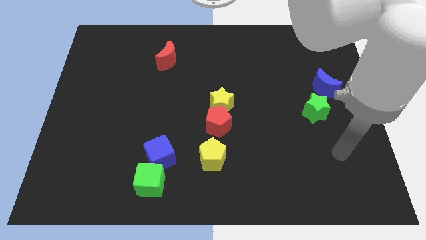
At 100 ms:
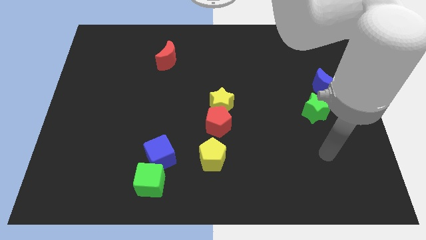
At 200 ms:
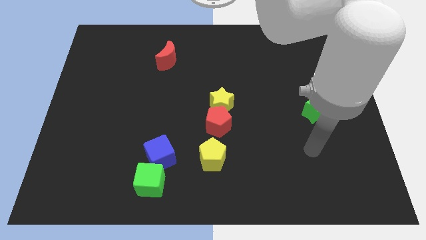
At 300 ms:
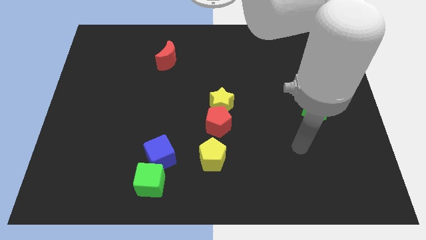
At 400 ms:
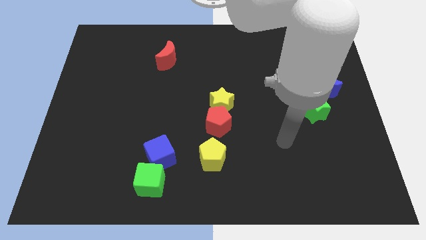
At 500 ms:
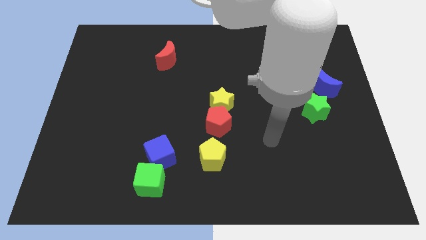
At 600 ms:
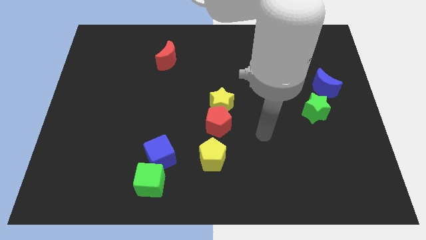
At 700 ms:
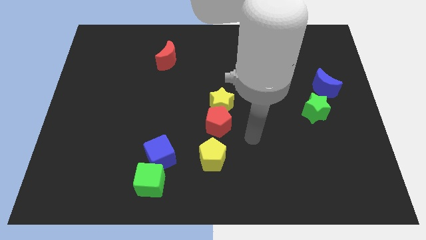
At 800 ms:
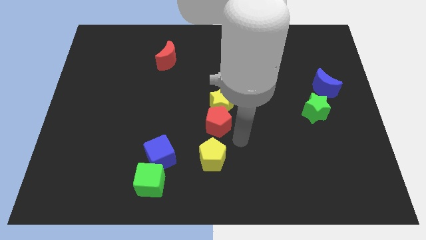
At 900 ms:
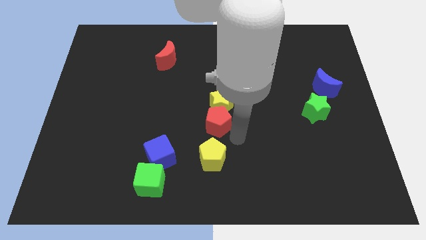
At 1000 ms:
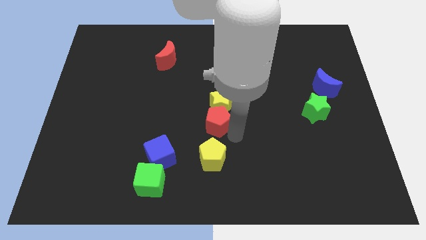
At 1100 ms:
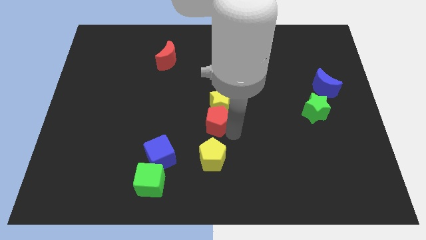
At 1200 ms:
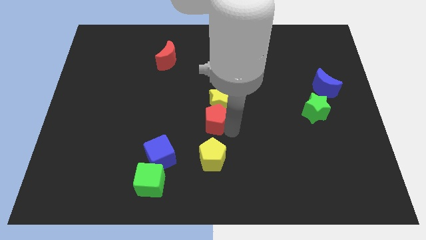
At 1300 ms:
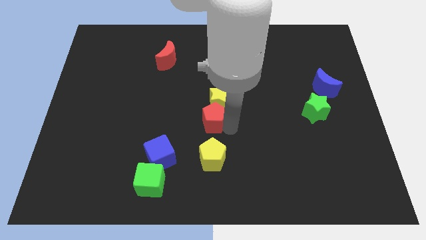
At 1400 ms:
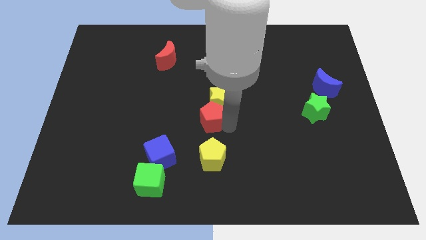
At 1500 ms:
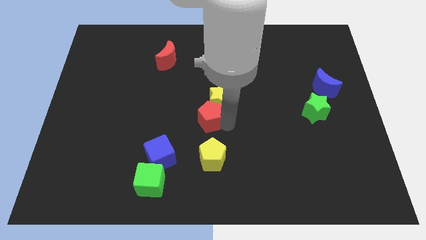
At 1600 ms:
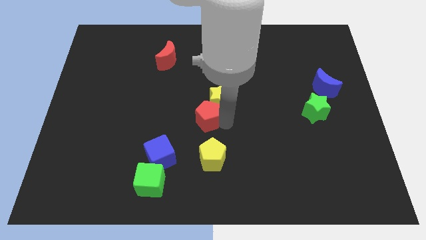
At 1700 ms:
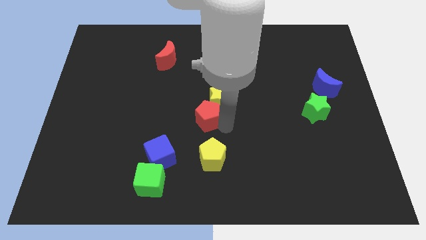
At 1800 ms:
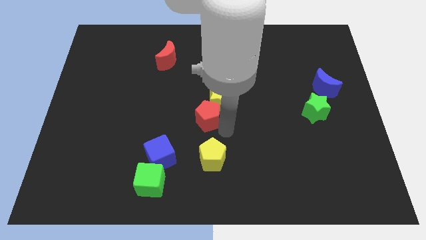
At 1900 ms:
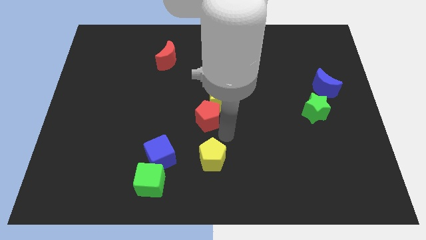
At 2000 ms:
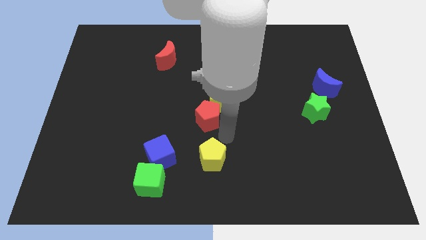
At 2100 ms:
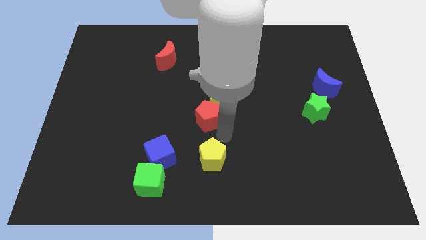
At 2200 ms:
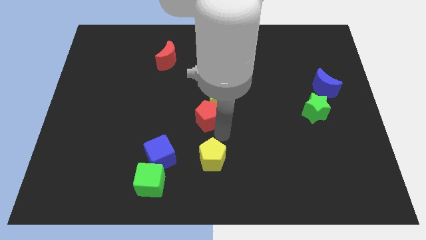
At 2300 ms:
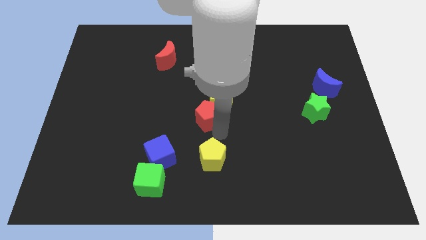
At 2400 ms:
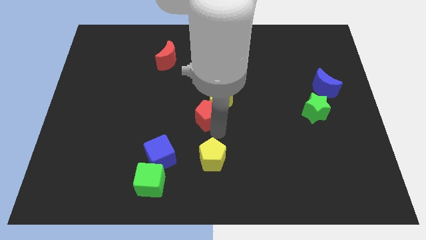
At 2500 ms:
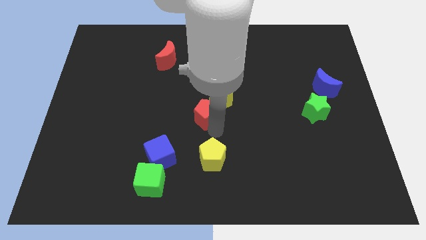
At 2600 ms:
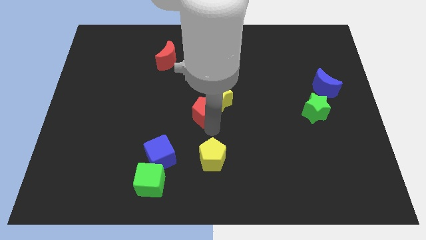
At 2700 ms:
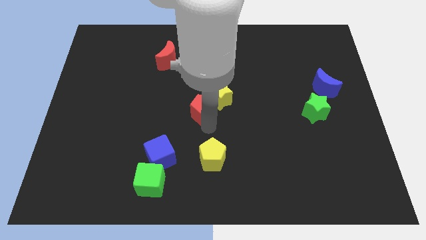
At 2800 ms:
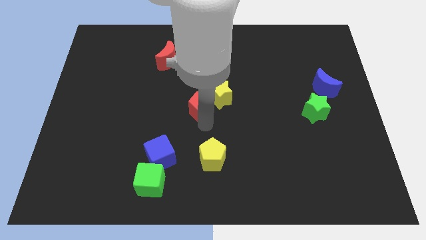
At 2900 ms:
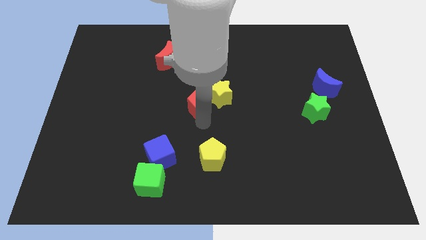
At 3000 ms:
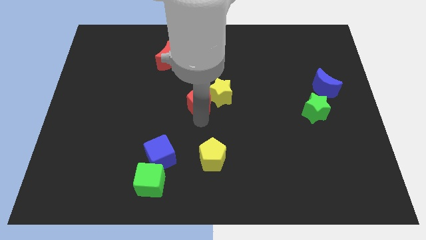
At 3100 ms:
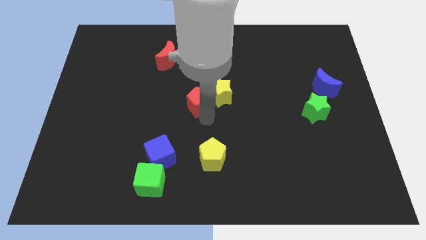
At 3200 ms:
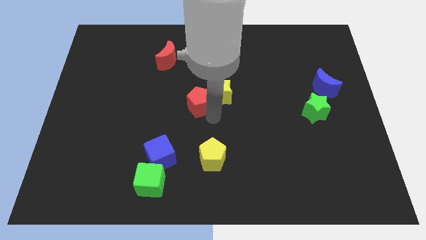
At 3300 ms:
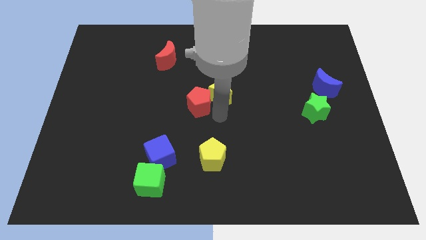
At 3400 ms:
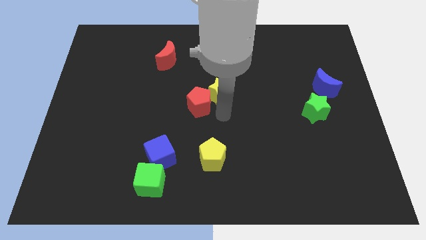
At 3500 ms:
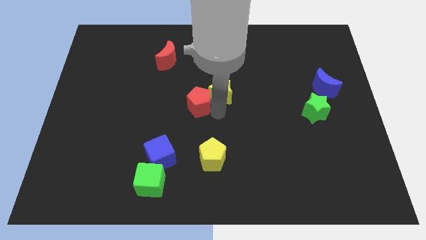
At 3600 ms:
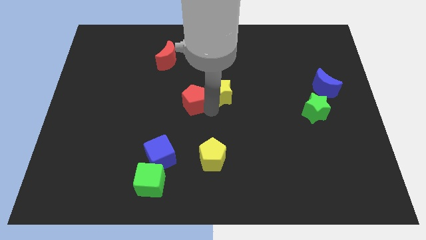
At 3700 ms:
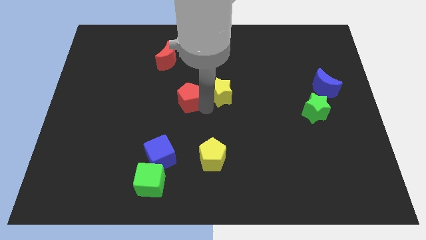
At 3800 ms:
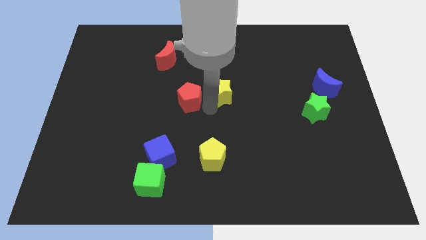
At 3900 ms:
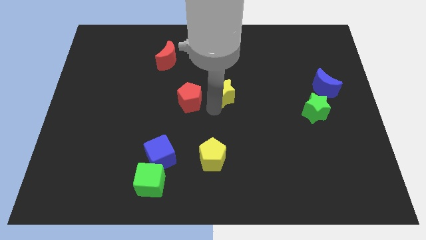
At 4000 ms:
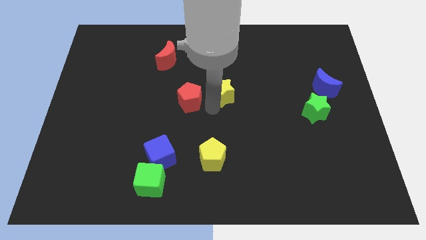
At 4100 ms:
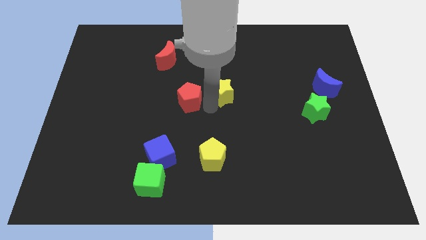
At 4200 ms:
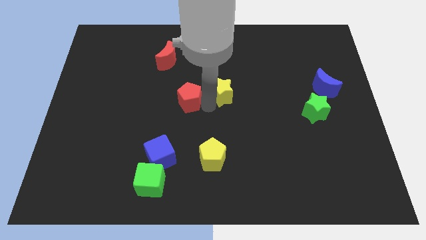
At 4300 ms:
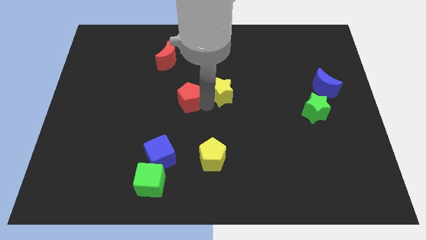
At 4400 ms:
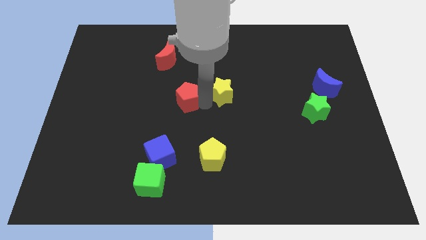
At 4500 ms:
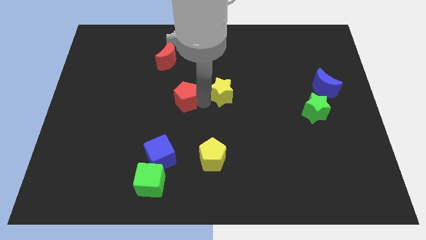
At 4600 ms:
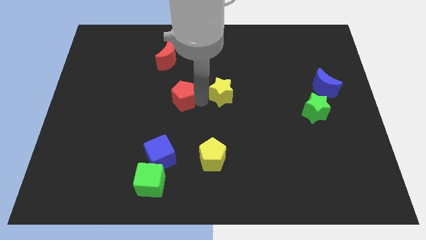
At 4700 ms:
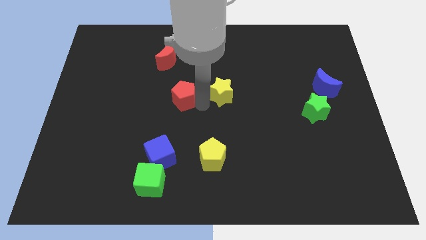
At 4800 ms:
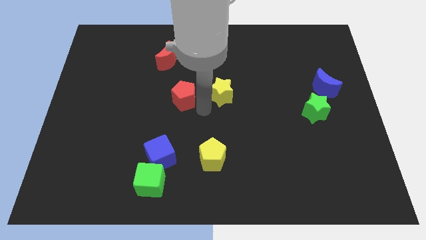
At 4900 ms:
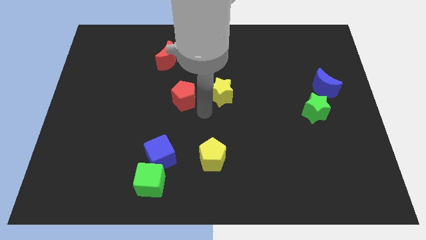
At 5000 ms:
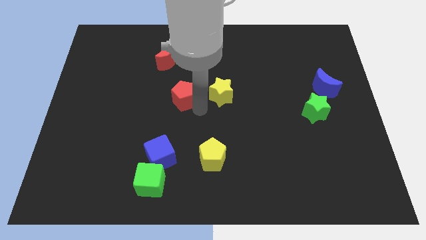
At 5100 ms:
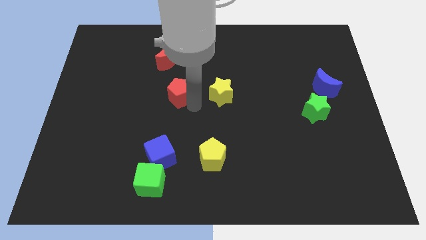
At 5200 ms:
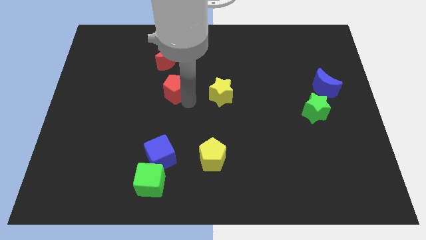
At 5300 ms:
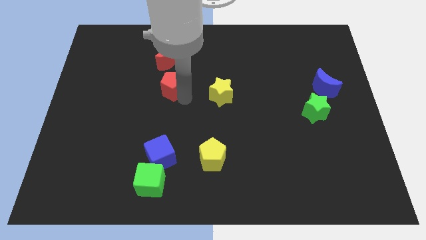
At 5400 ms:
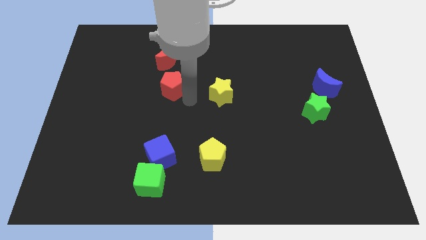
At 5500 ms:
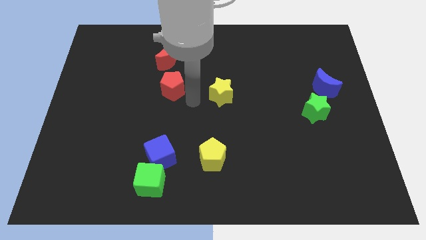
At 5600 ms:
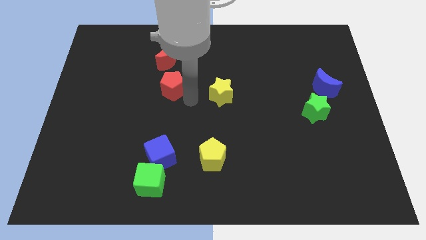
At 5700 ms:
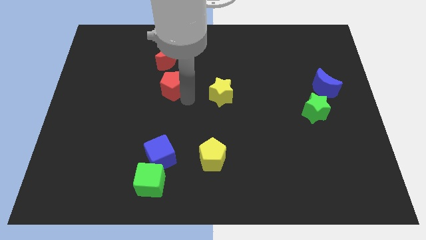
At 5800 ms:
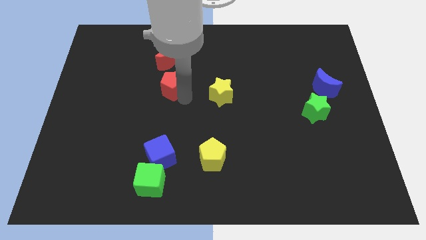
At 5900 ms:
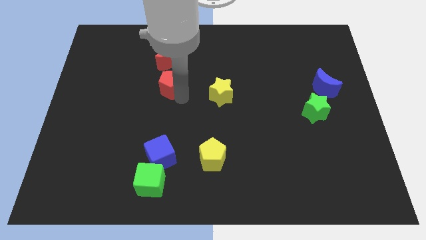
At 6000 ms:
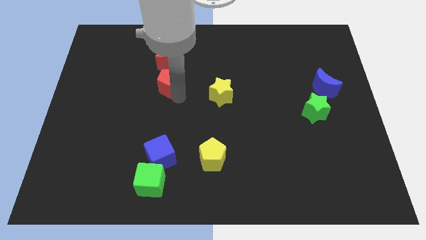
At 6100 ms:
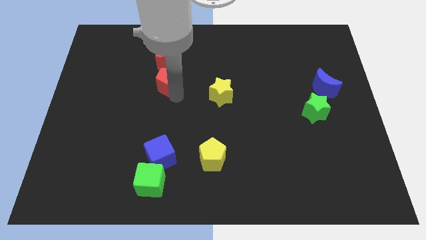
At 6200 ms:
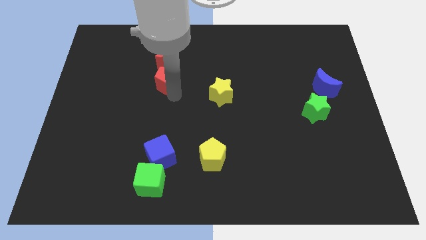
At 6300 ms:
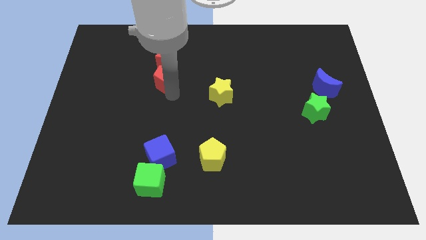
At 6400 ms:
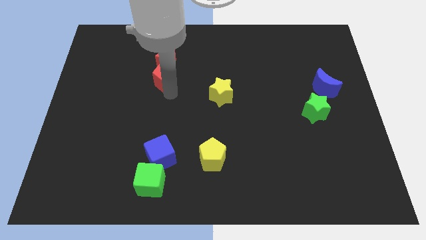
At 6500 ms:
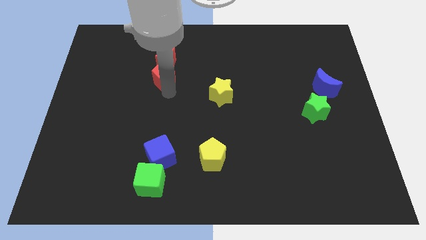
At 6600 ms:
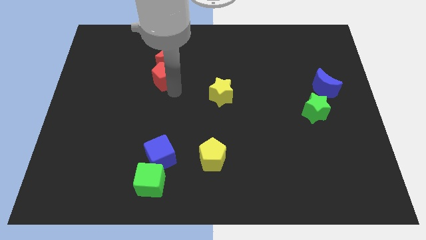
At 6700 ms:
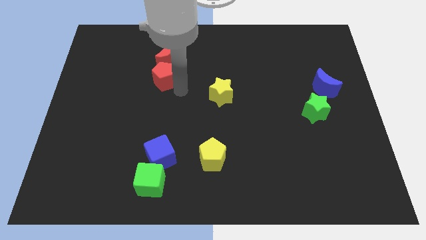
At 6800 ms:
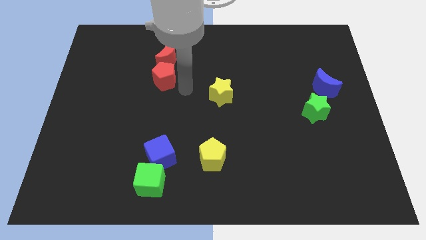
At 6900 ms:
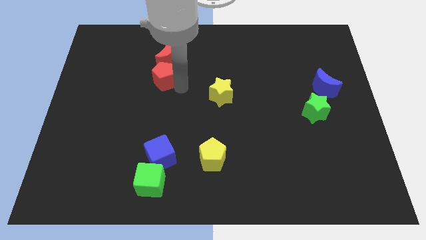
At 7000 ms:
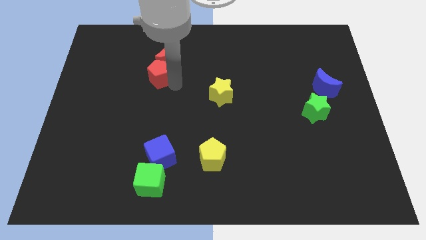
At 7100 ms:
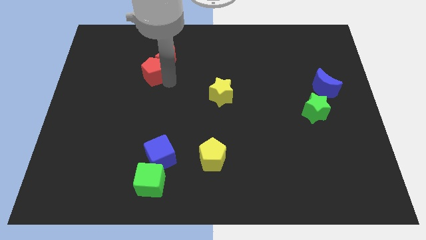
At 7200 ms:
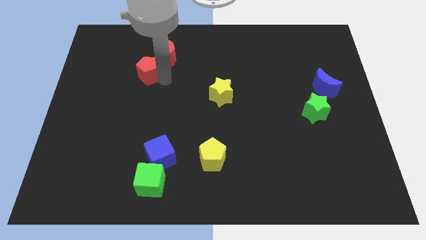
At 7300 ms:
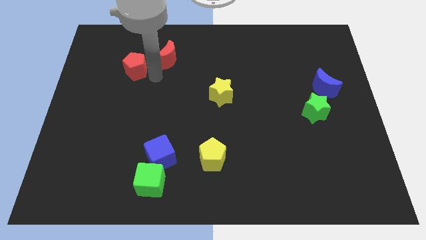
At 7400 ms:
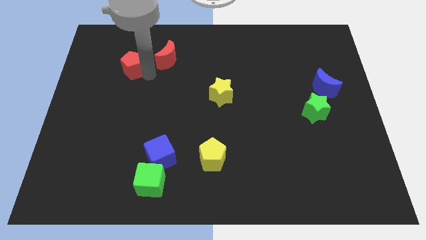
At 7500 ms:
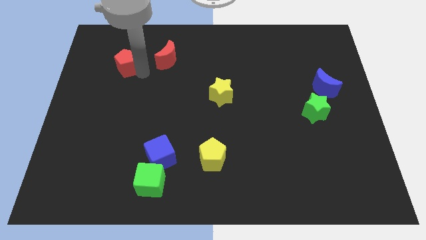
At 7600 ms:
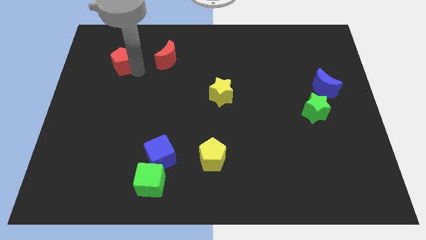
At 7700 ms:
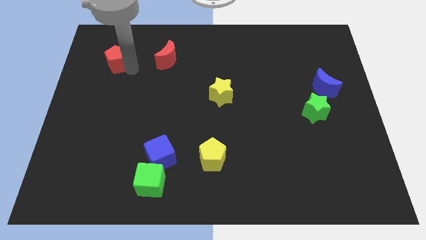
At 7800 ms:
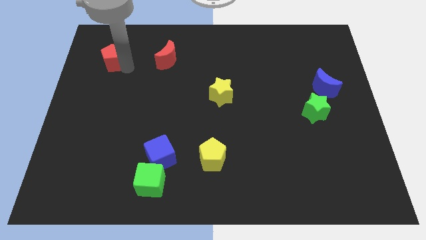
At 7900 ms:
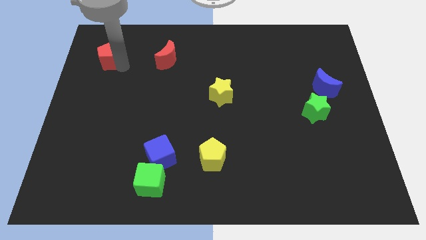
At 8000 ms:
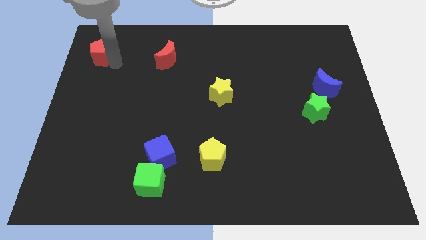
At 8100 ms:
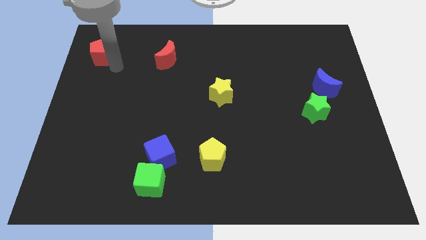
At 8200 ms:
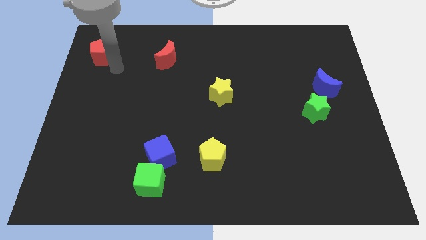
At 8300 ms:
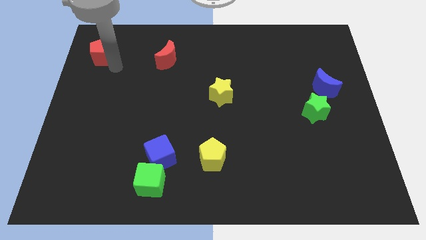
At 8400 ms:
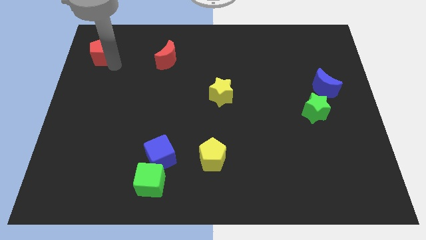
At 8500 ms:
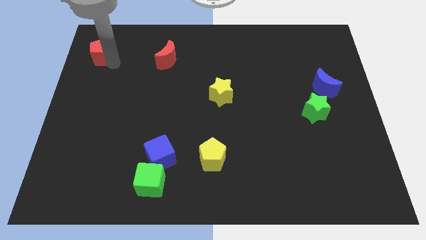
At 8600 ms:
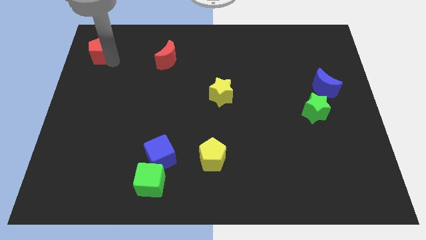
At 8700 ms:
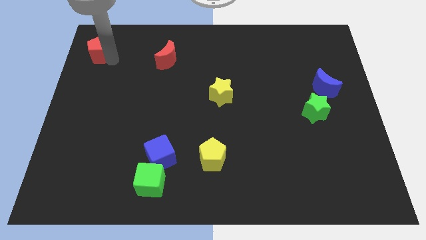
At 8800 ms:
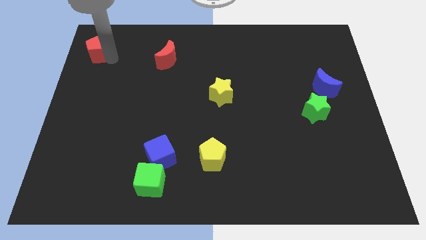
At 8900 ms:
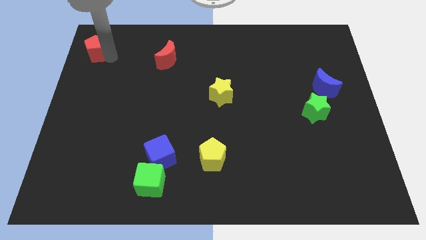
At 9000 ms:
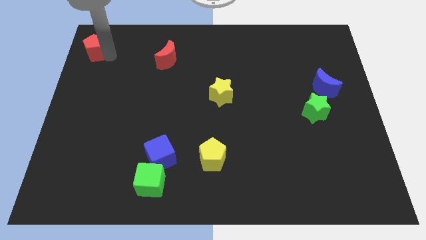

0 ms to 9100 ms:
push the red pentagon to the upper left corner
